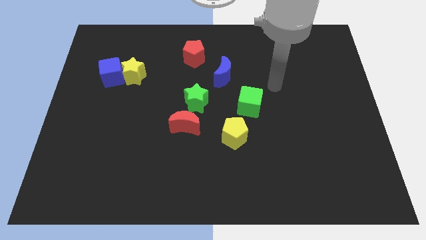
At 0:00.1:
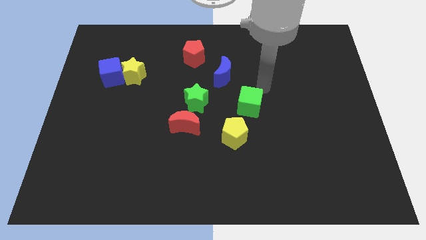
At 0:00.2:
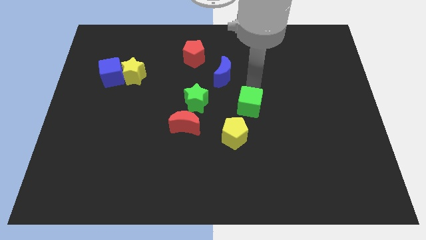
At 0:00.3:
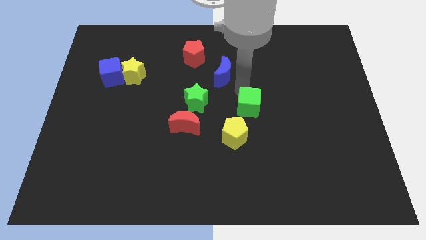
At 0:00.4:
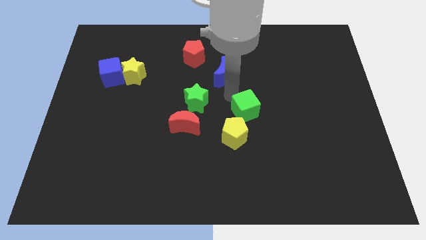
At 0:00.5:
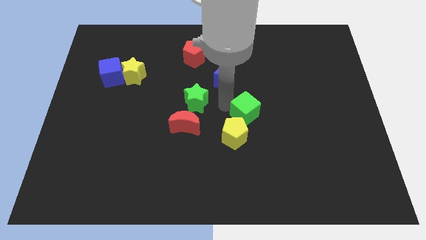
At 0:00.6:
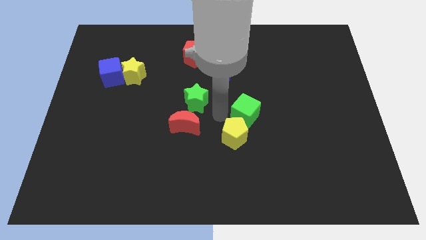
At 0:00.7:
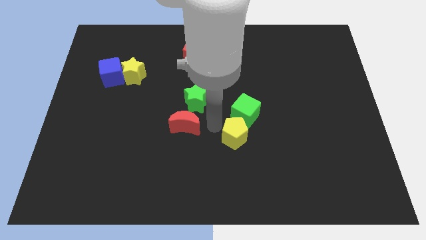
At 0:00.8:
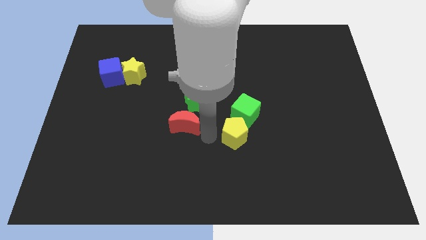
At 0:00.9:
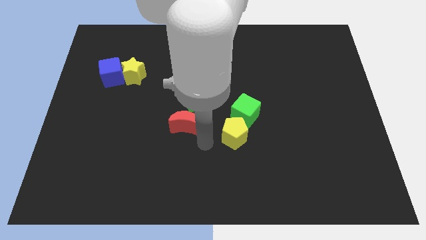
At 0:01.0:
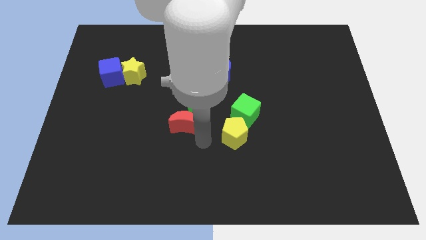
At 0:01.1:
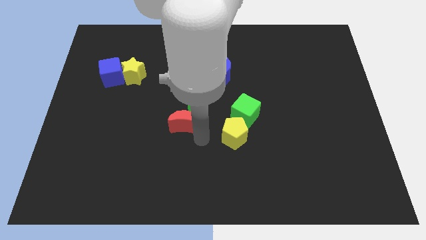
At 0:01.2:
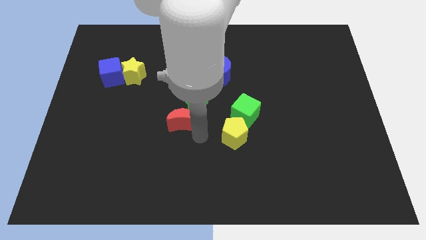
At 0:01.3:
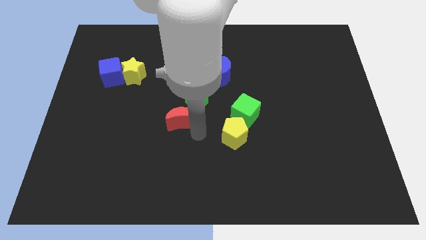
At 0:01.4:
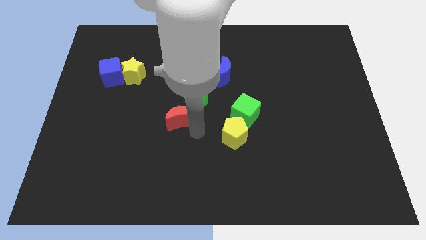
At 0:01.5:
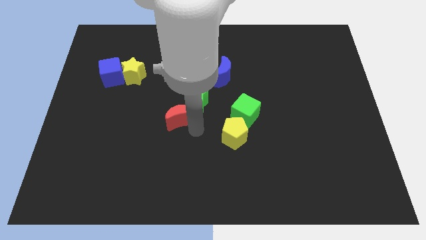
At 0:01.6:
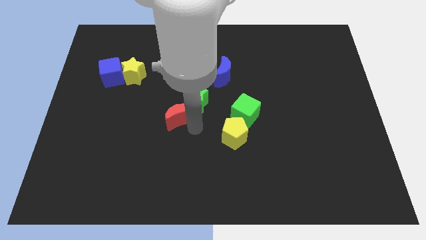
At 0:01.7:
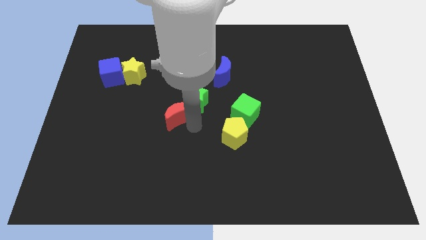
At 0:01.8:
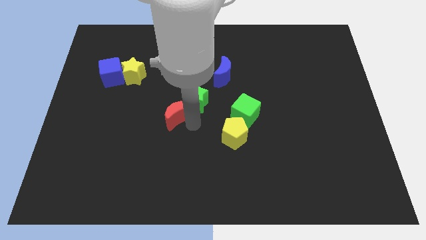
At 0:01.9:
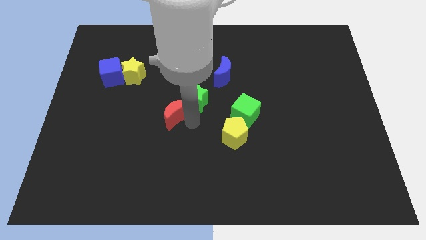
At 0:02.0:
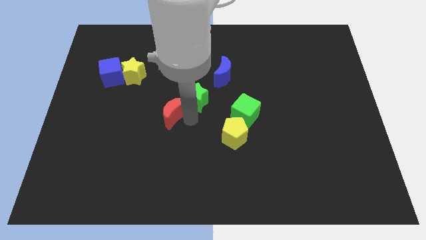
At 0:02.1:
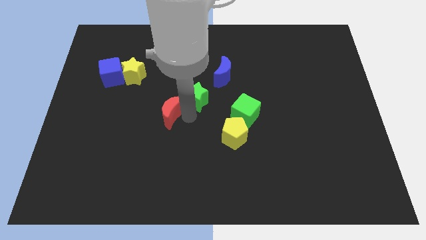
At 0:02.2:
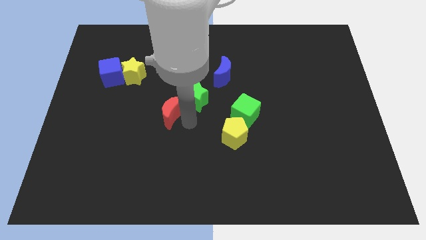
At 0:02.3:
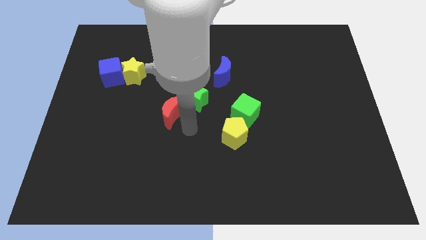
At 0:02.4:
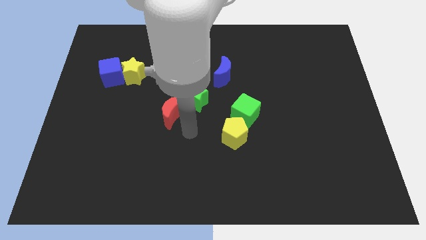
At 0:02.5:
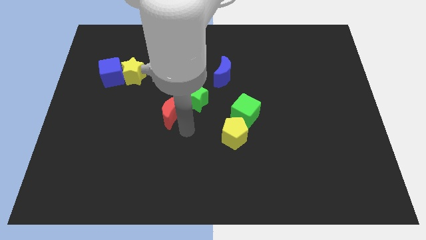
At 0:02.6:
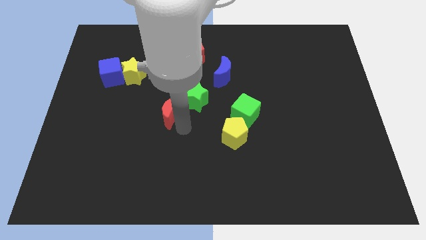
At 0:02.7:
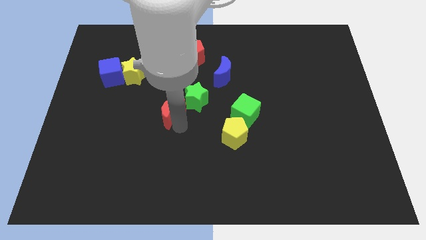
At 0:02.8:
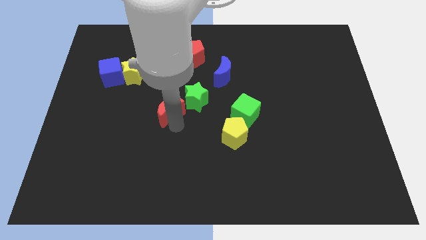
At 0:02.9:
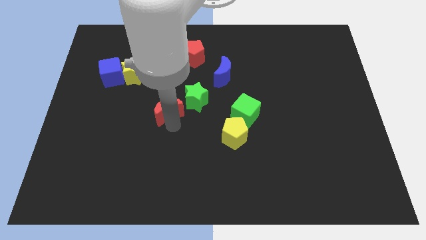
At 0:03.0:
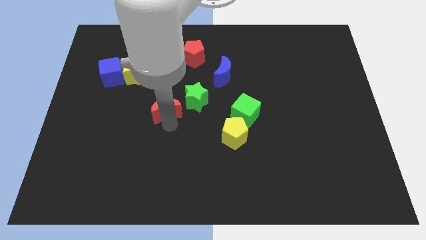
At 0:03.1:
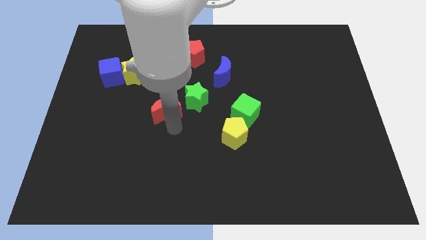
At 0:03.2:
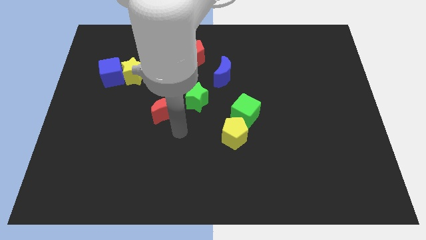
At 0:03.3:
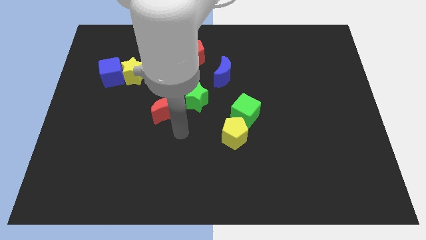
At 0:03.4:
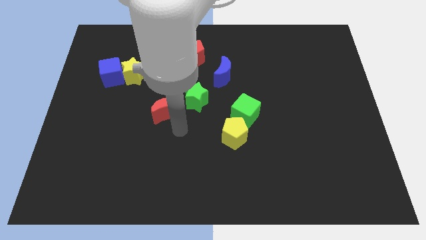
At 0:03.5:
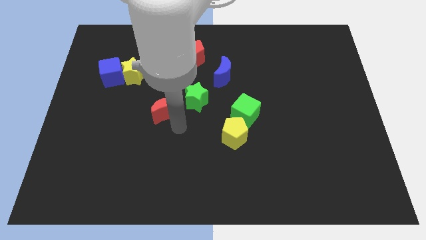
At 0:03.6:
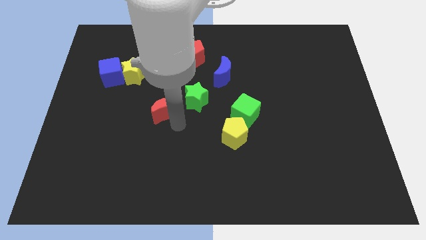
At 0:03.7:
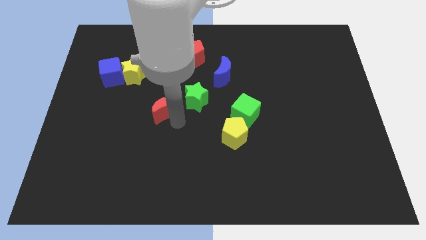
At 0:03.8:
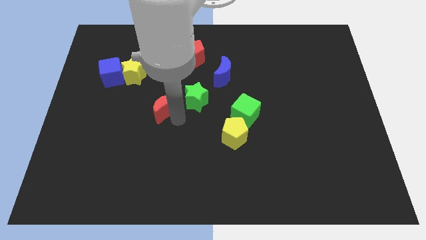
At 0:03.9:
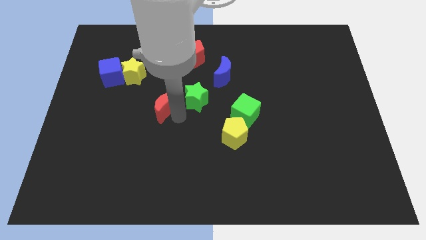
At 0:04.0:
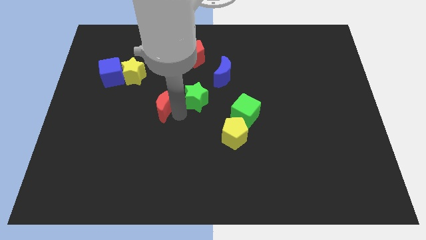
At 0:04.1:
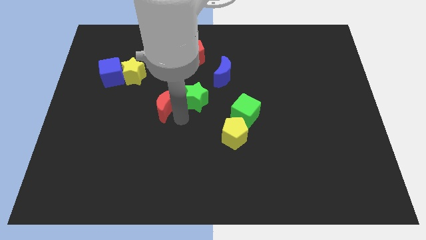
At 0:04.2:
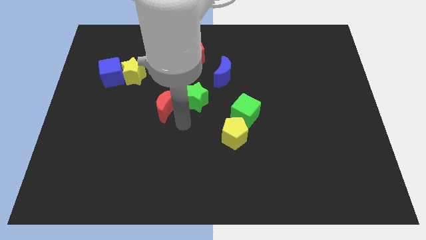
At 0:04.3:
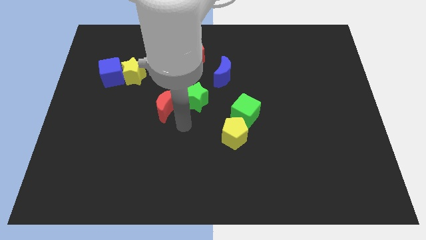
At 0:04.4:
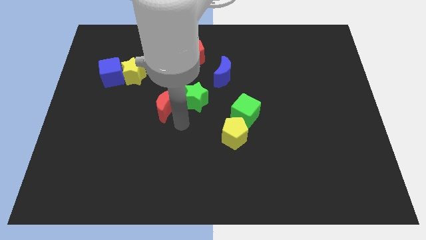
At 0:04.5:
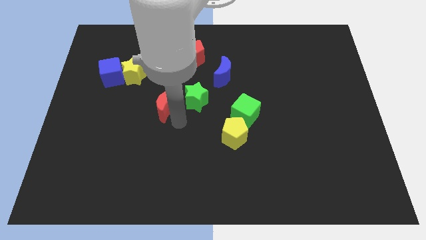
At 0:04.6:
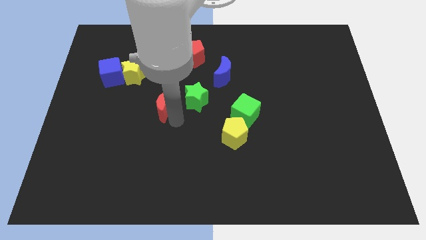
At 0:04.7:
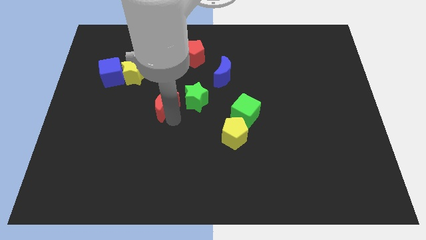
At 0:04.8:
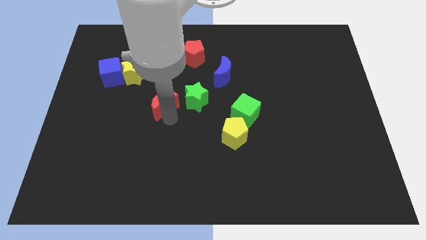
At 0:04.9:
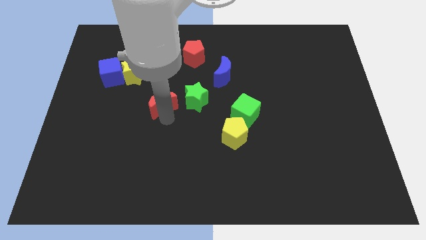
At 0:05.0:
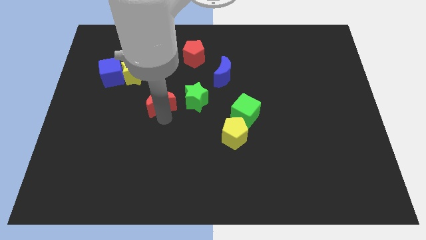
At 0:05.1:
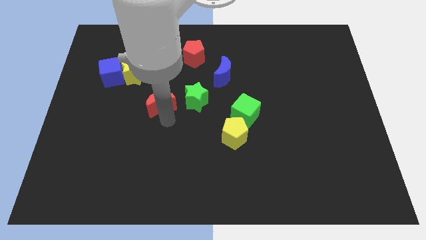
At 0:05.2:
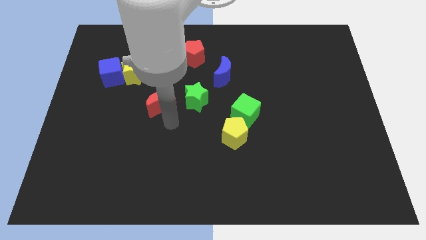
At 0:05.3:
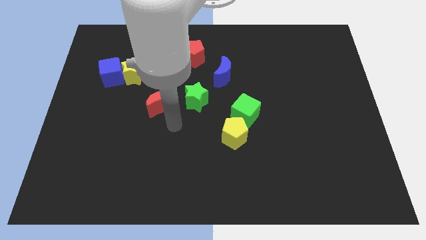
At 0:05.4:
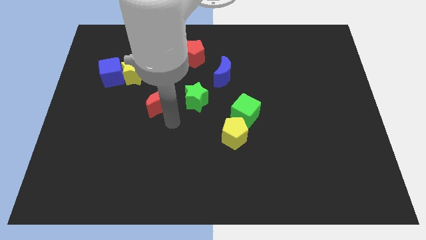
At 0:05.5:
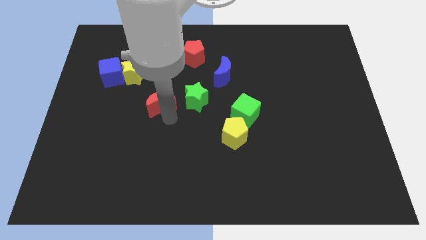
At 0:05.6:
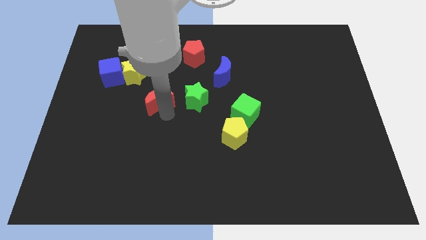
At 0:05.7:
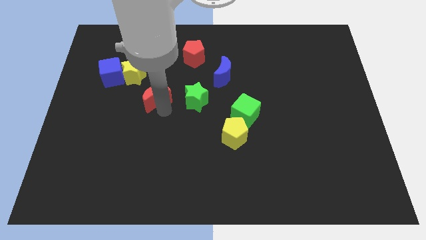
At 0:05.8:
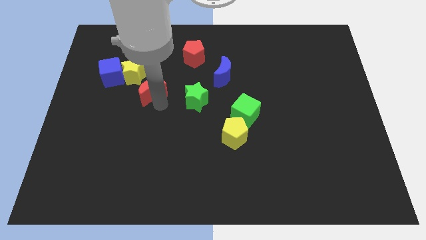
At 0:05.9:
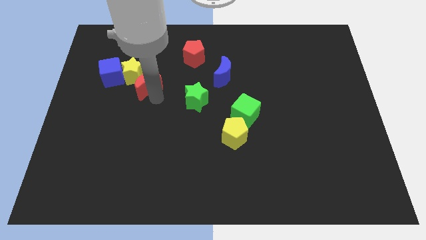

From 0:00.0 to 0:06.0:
slide the red moon to the yellow star

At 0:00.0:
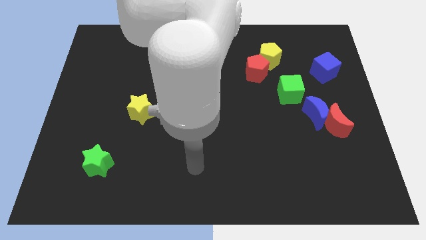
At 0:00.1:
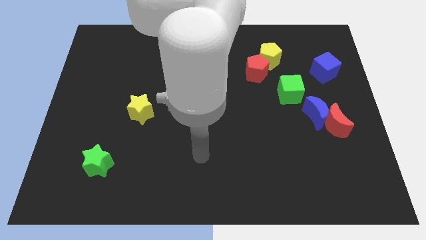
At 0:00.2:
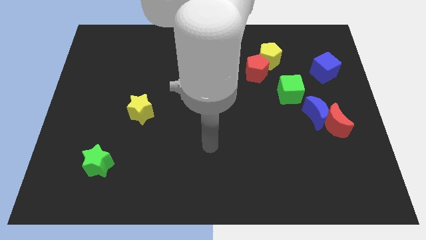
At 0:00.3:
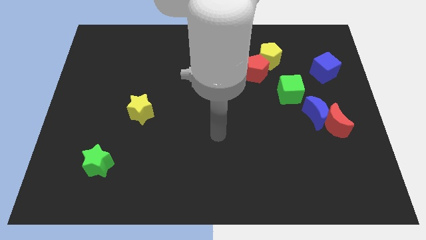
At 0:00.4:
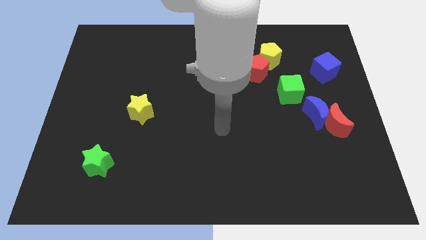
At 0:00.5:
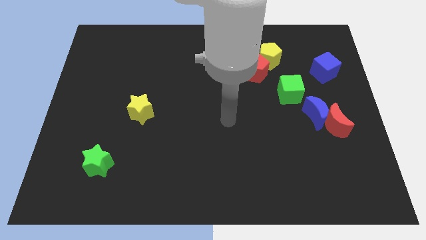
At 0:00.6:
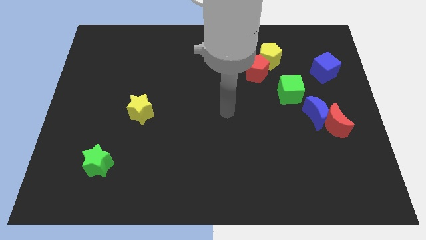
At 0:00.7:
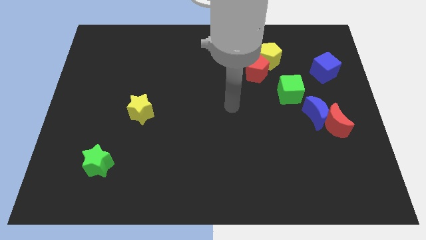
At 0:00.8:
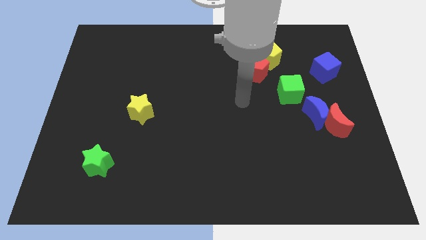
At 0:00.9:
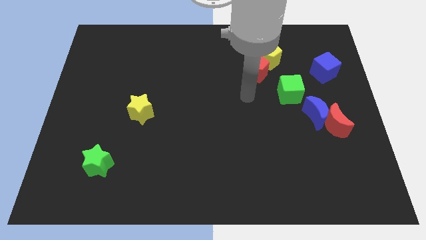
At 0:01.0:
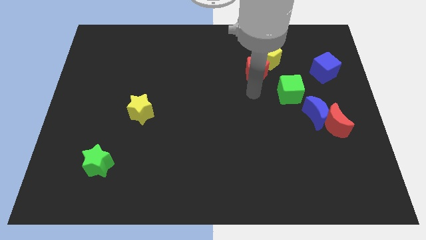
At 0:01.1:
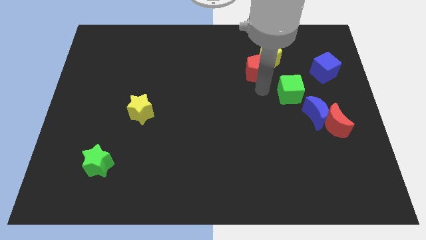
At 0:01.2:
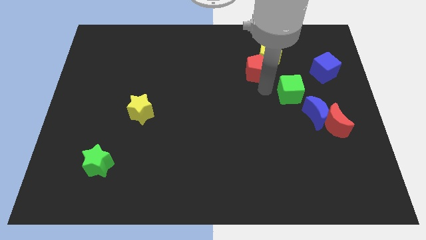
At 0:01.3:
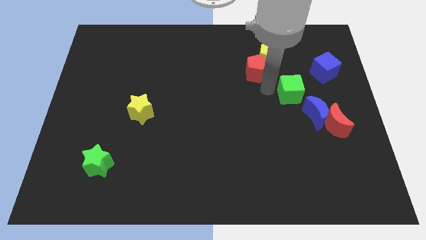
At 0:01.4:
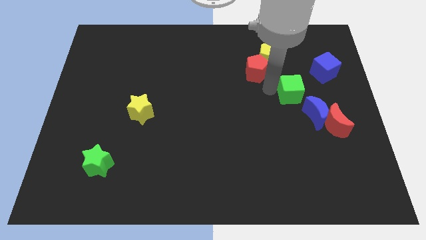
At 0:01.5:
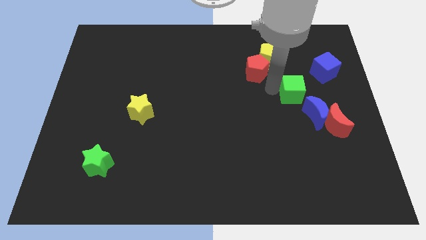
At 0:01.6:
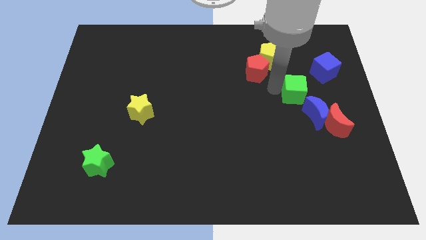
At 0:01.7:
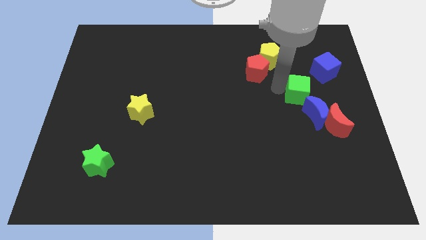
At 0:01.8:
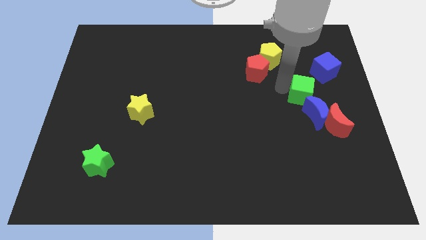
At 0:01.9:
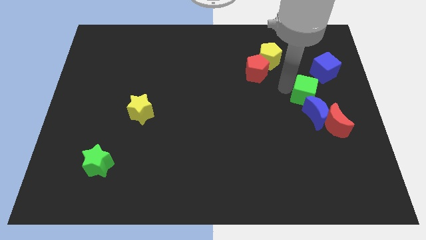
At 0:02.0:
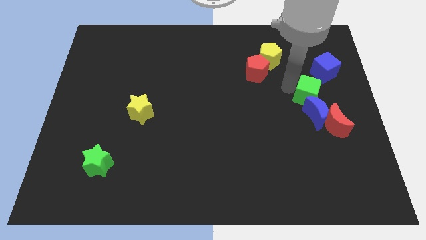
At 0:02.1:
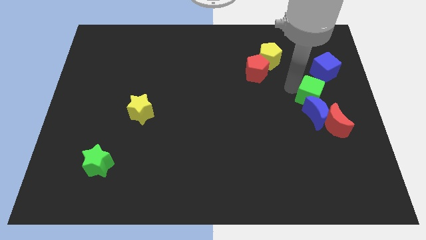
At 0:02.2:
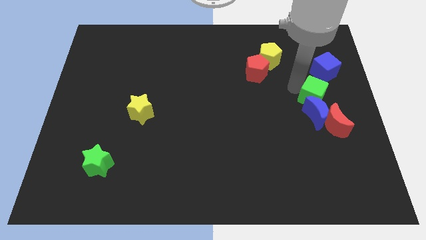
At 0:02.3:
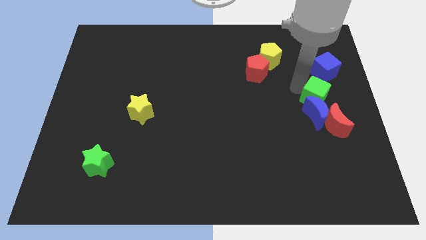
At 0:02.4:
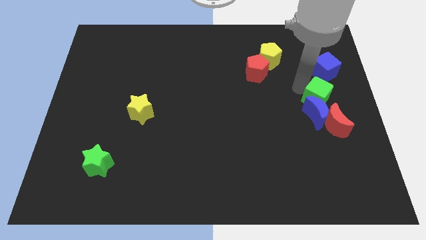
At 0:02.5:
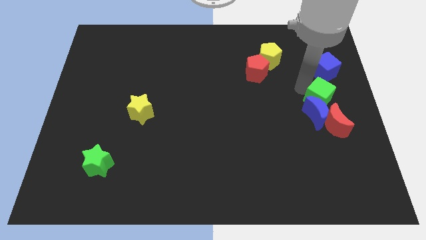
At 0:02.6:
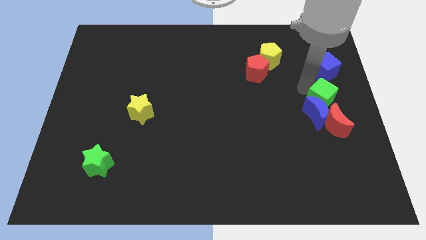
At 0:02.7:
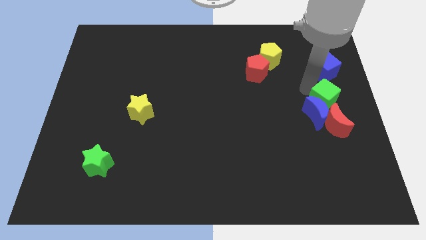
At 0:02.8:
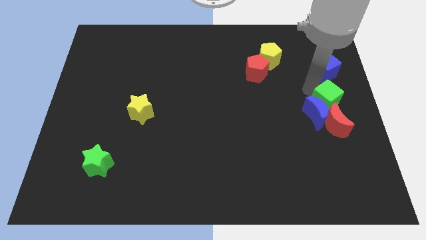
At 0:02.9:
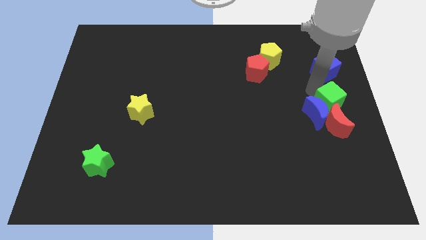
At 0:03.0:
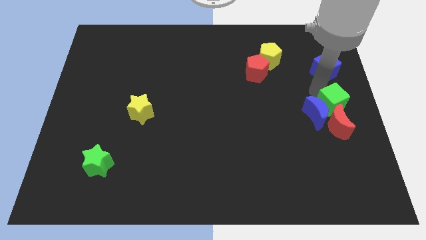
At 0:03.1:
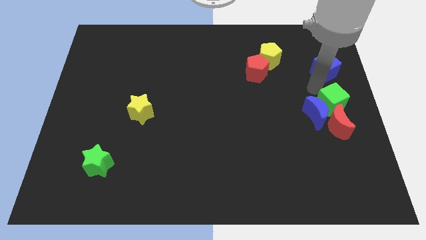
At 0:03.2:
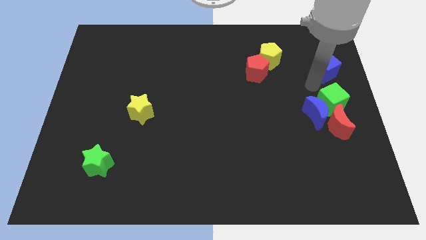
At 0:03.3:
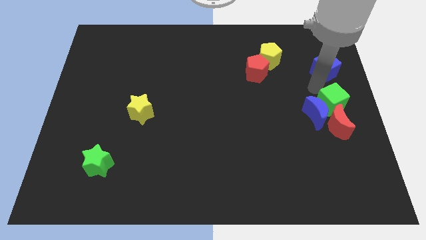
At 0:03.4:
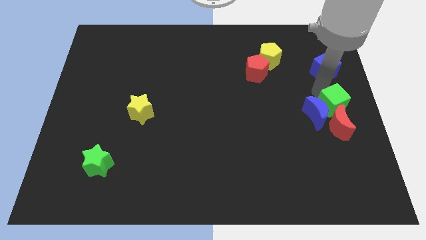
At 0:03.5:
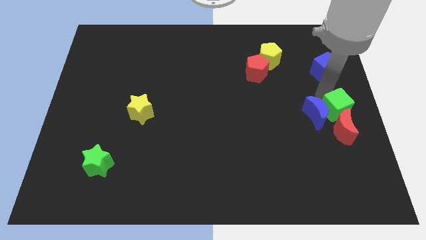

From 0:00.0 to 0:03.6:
move the green cube to the red moon
